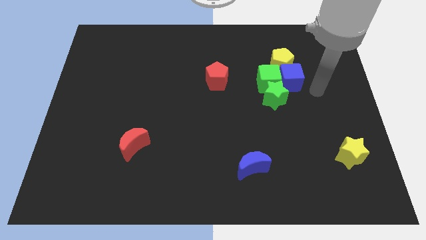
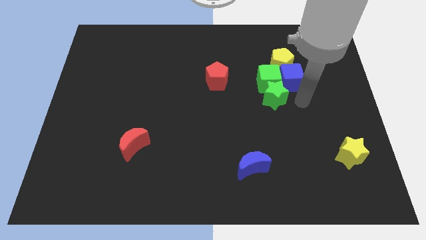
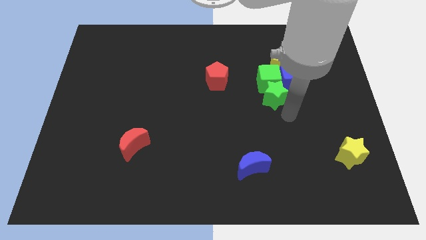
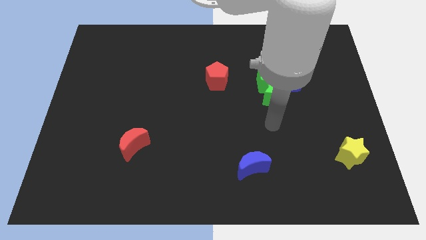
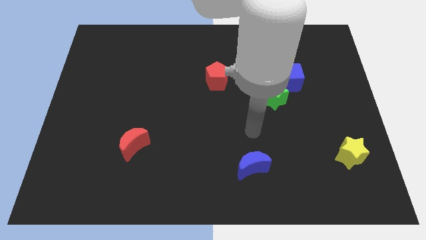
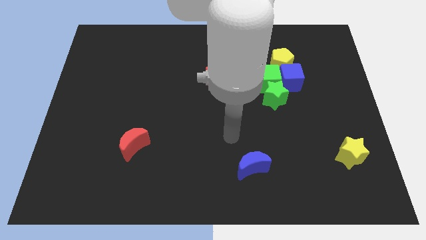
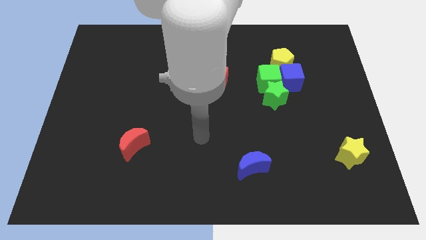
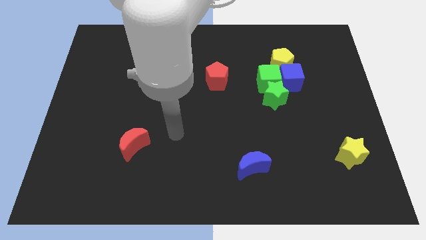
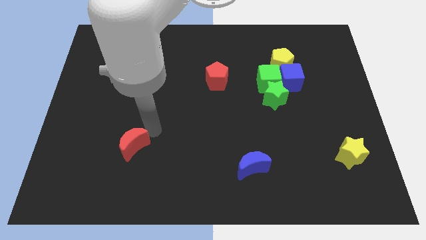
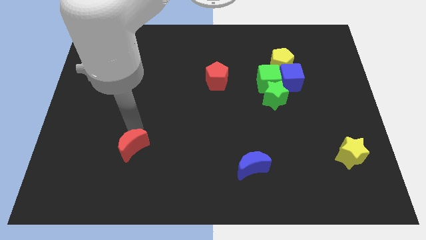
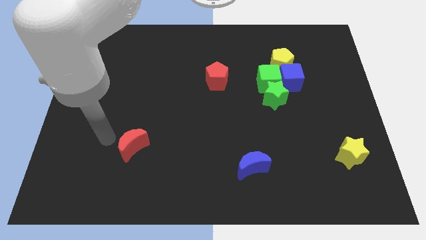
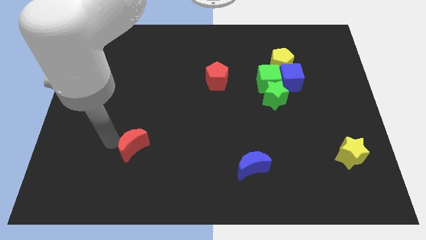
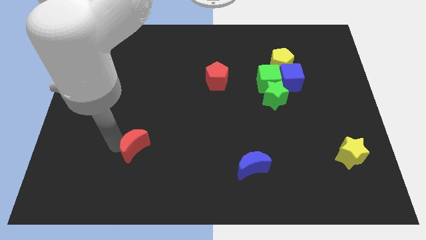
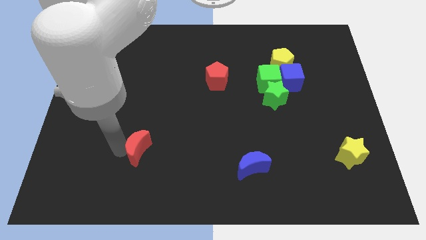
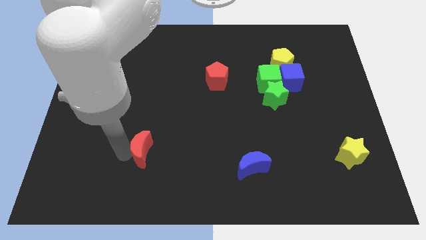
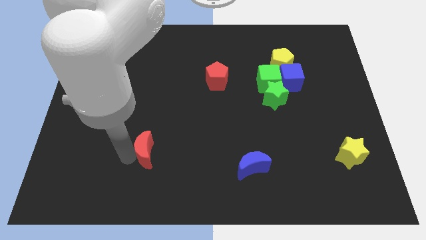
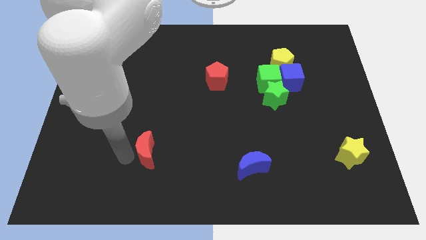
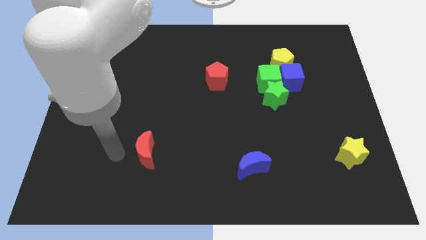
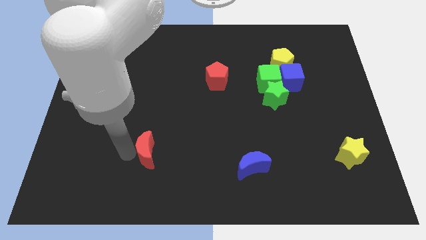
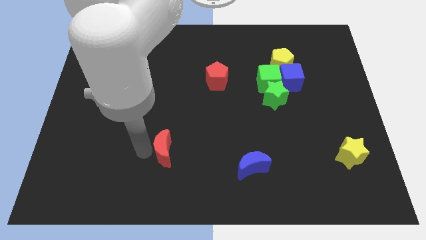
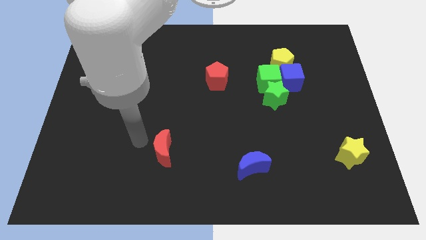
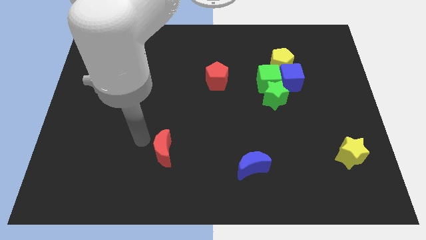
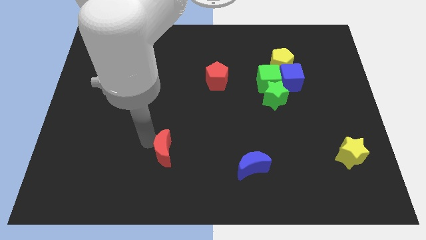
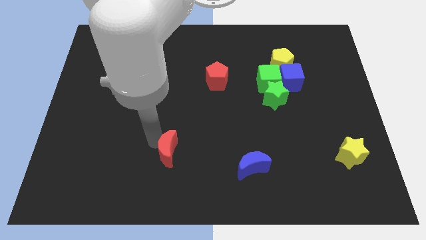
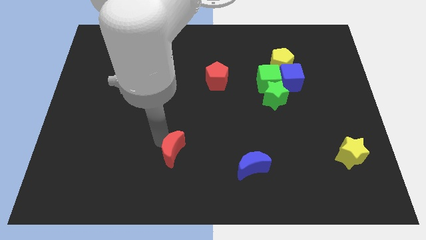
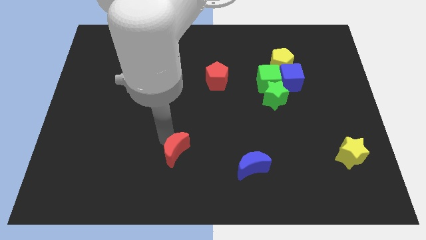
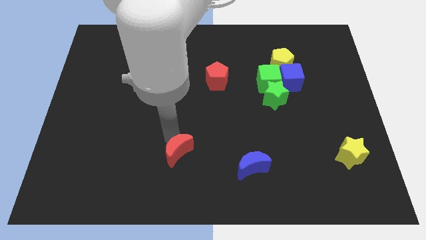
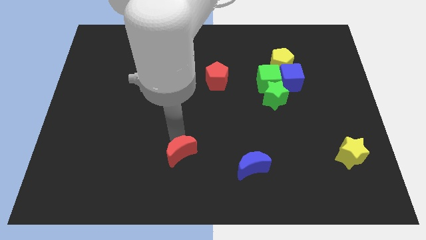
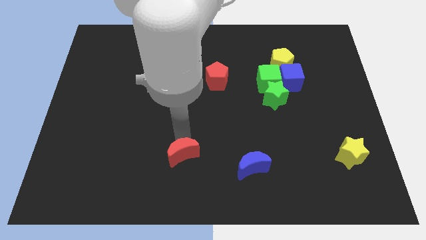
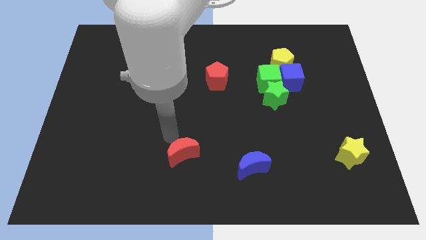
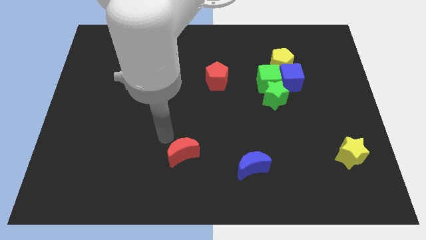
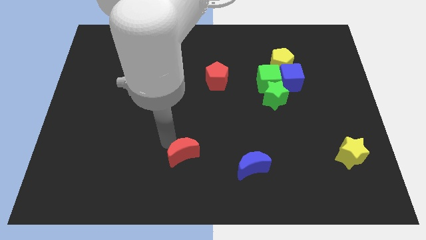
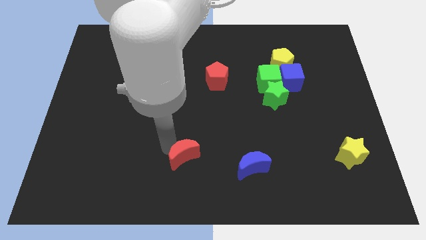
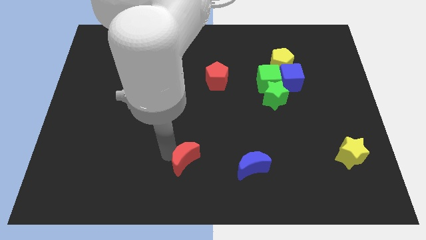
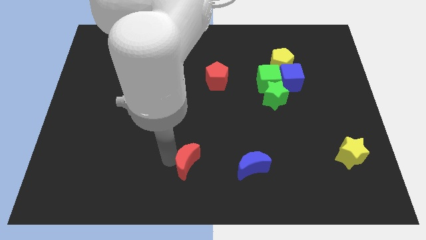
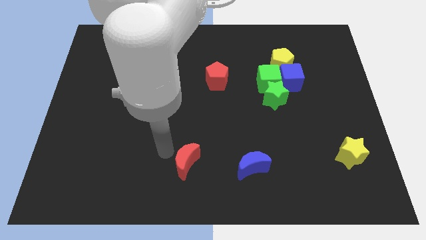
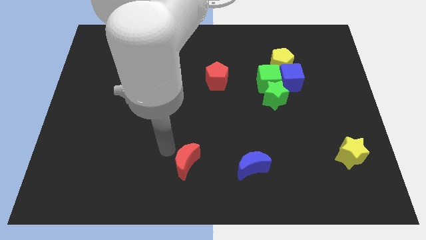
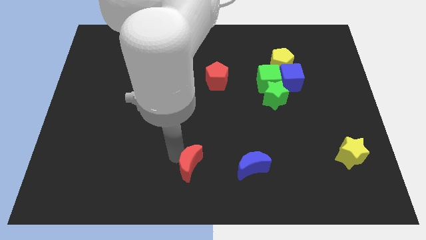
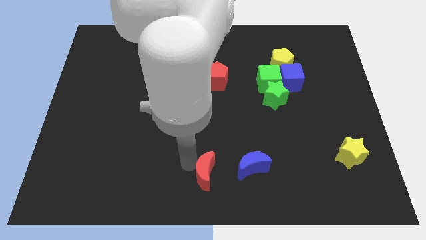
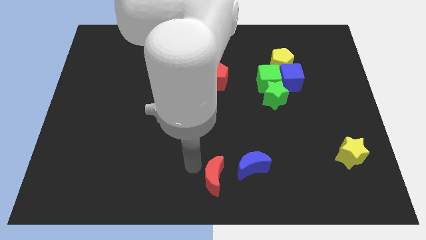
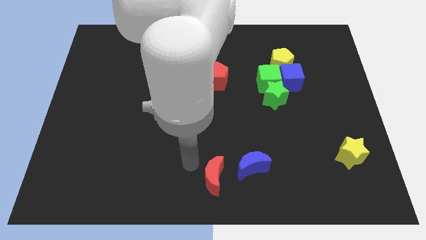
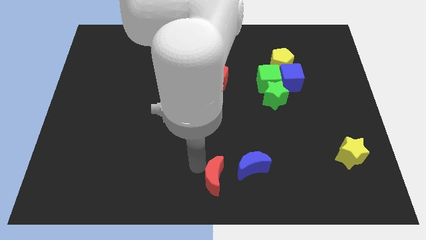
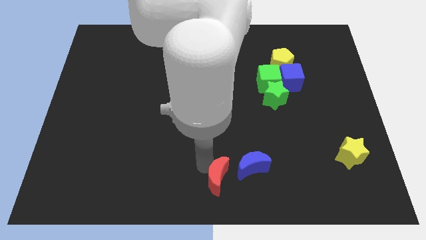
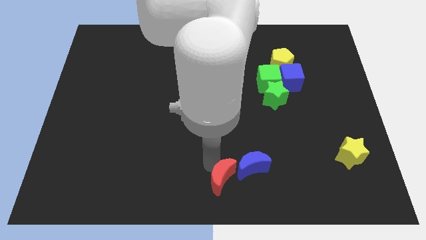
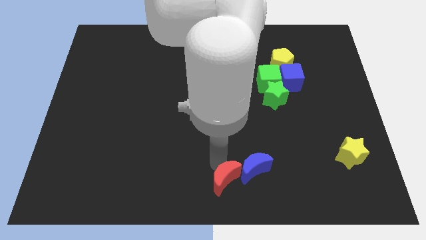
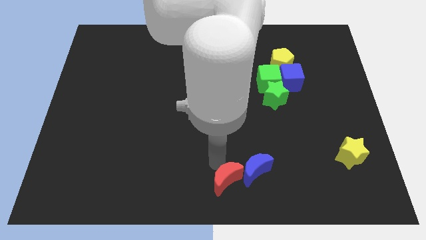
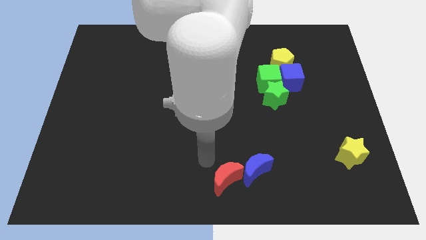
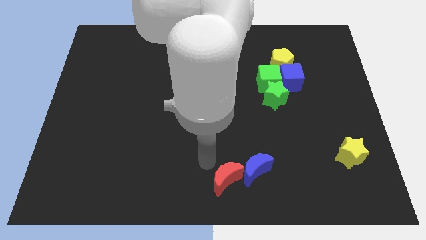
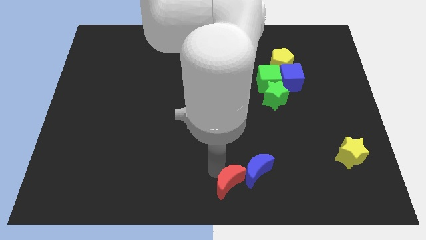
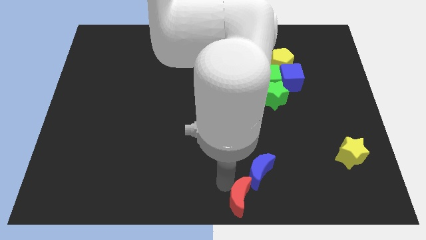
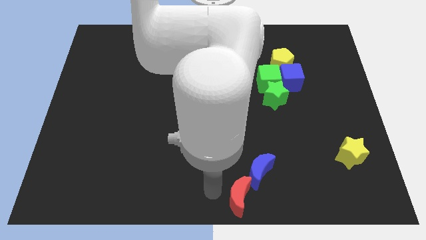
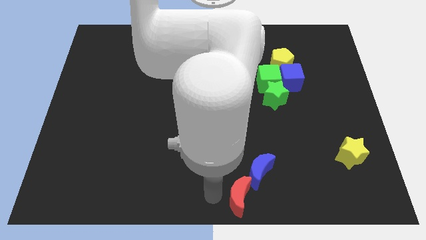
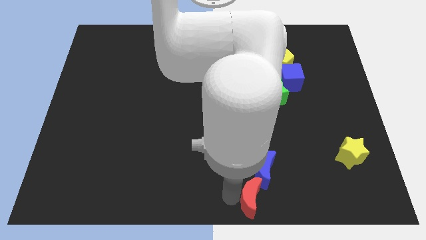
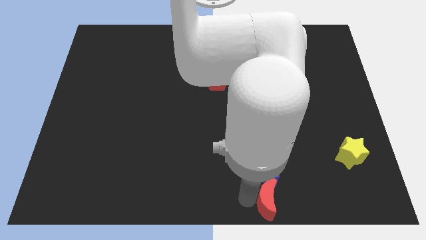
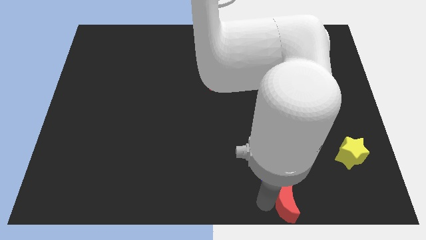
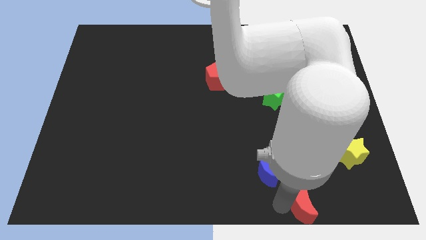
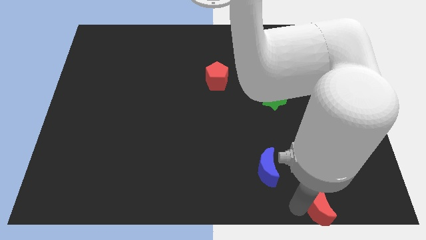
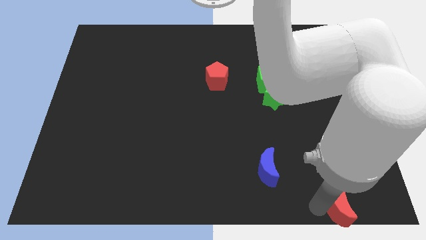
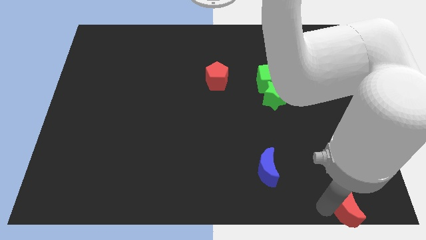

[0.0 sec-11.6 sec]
slide the red moon to the bottom right corner
